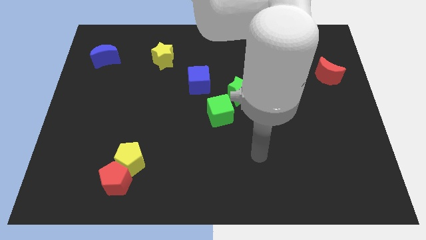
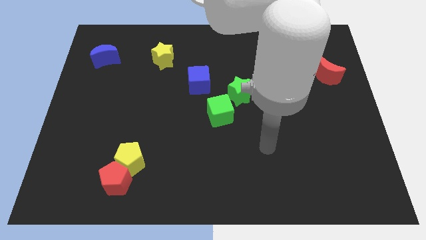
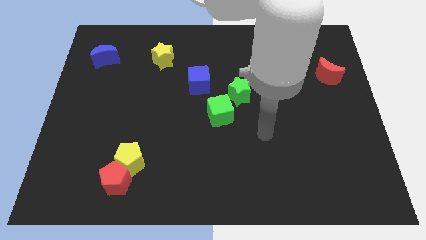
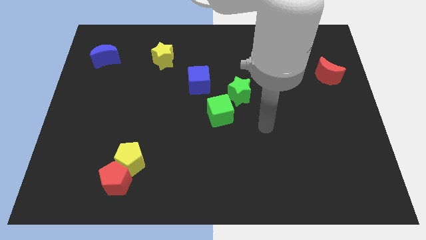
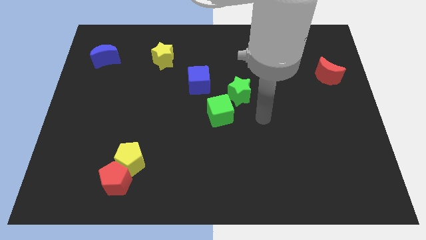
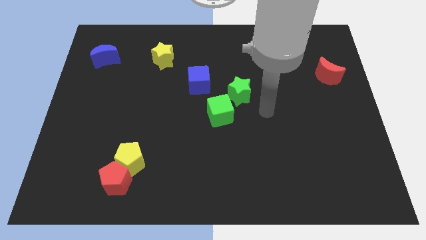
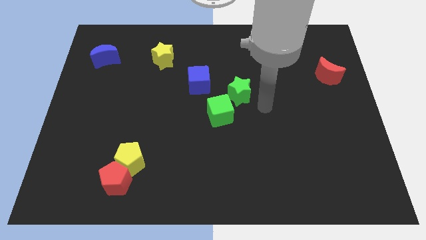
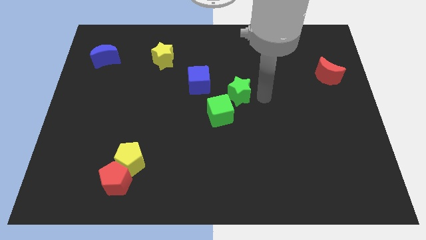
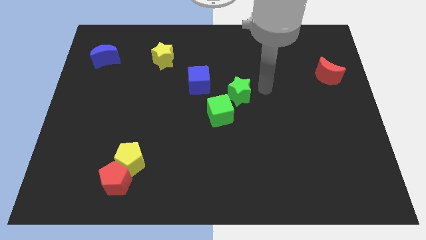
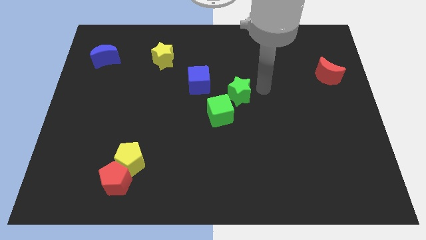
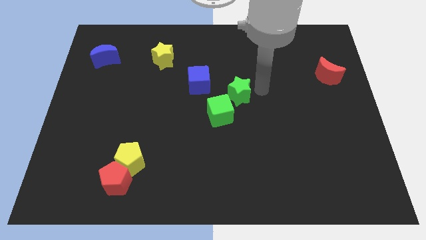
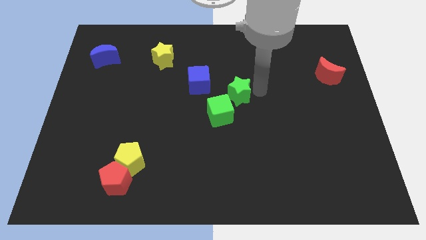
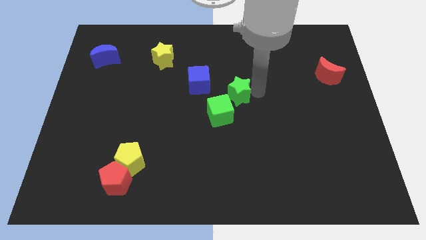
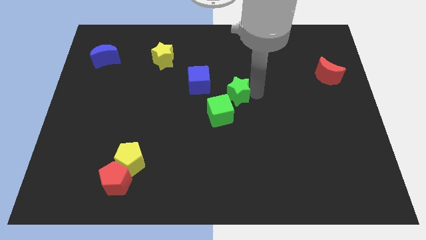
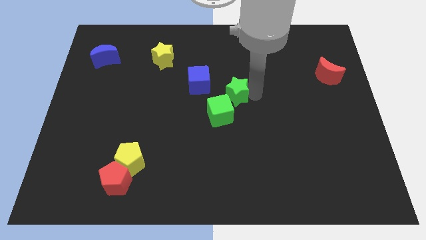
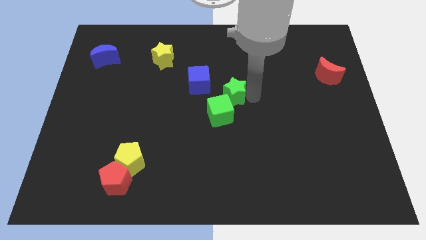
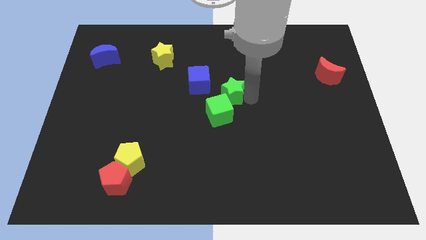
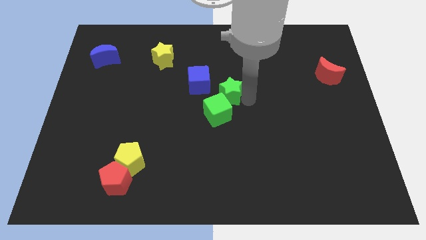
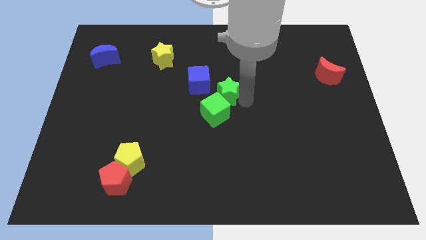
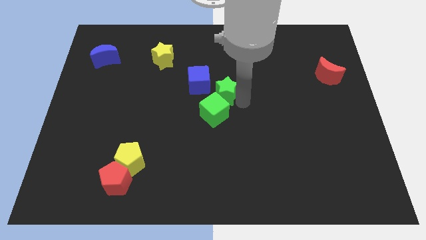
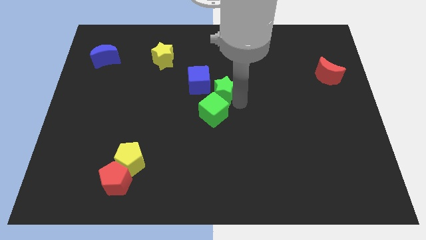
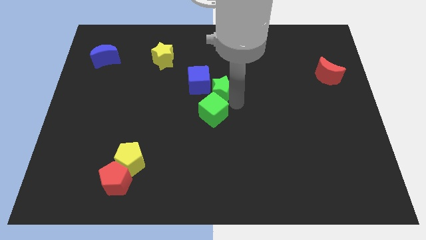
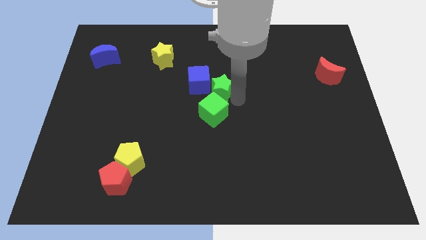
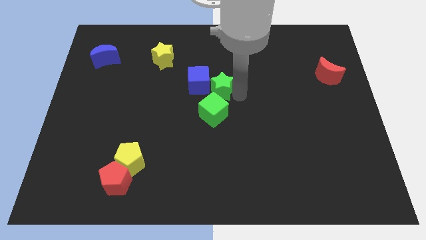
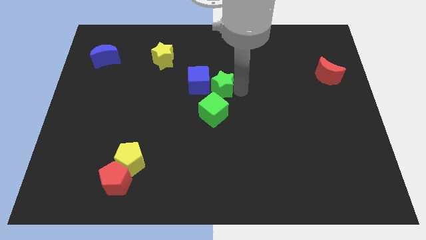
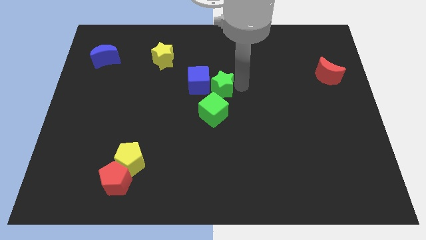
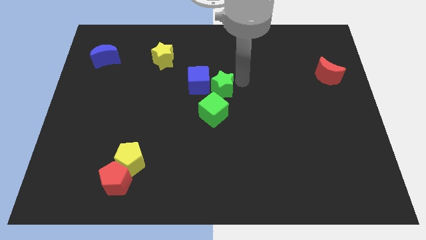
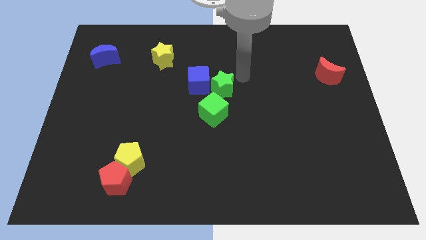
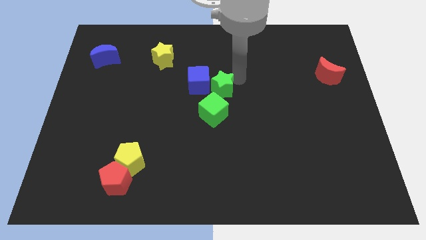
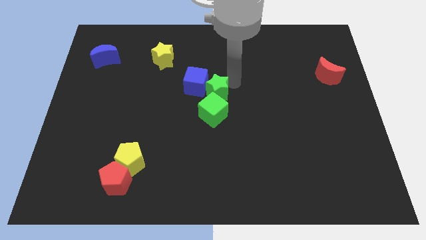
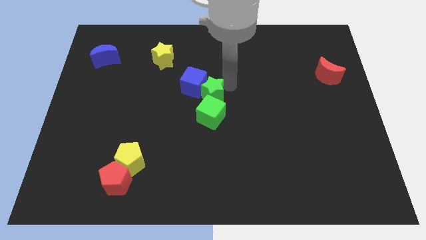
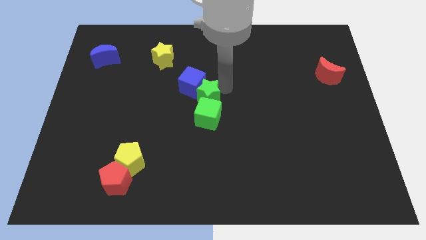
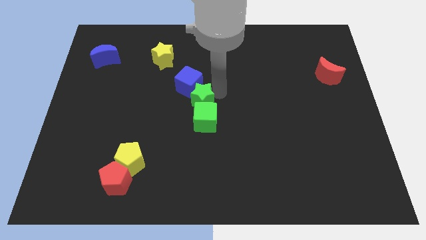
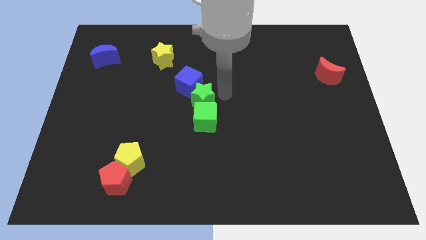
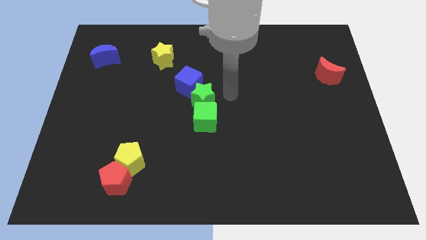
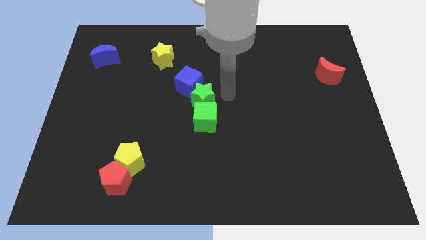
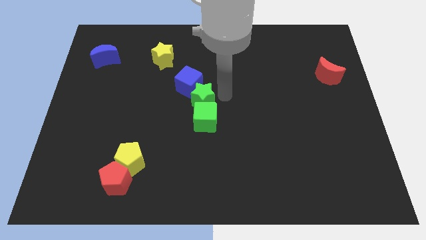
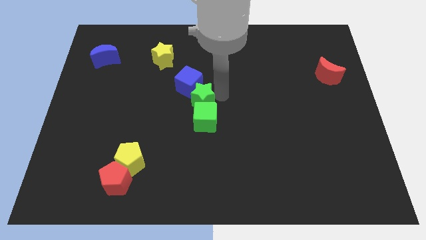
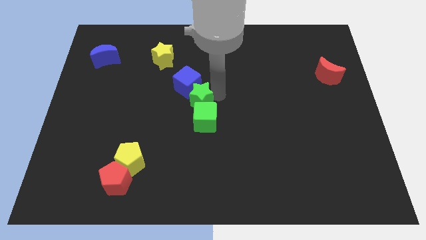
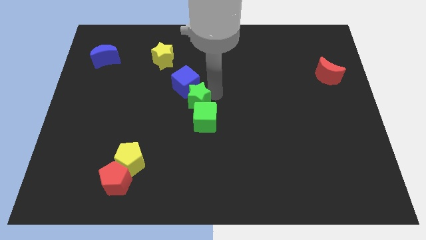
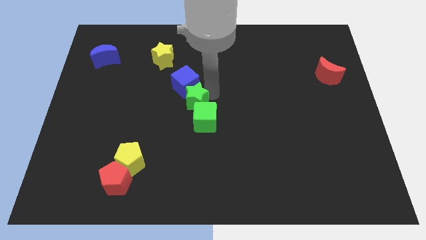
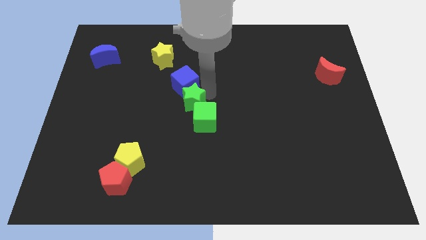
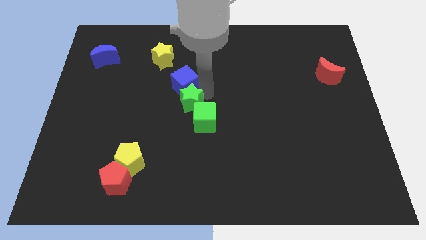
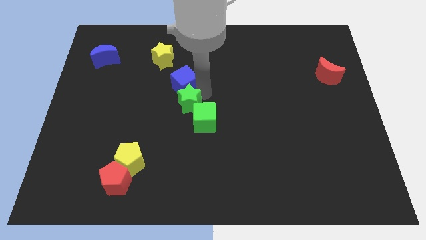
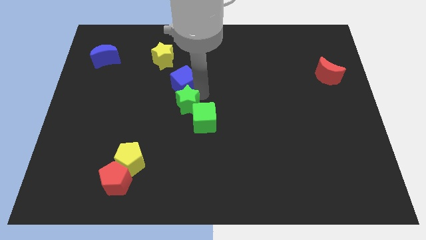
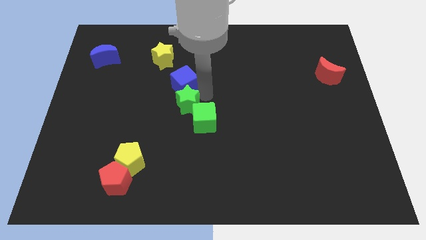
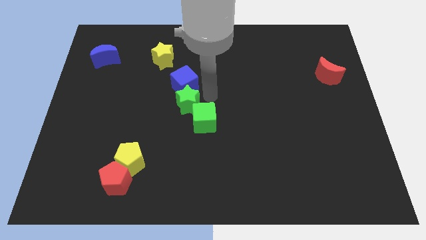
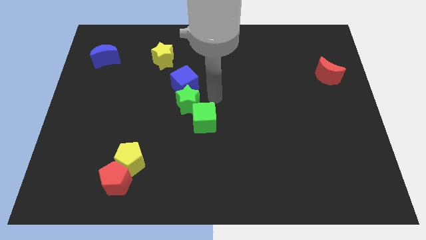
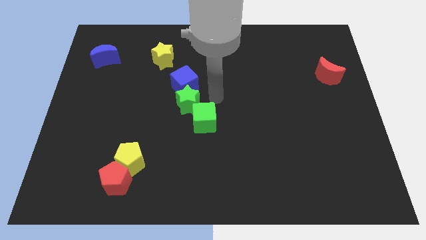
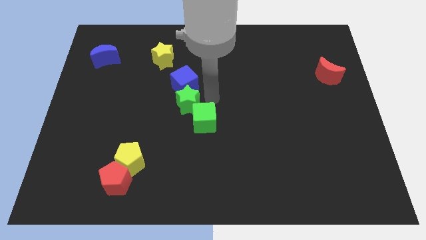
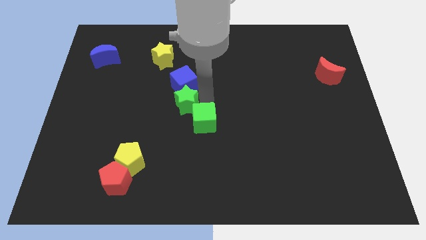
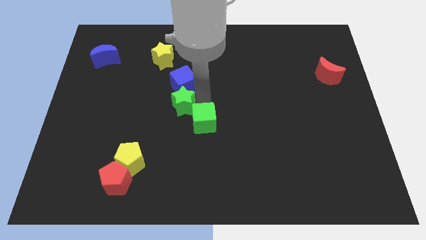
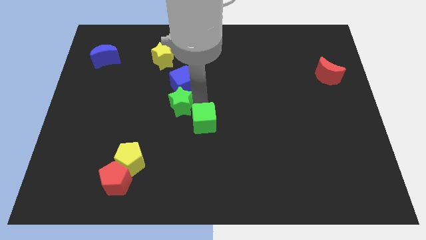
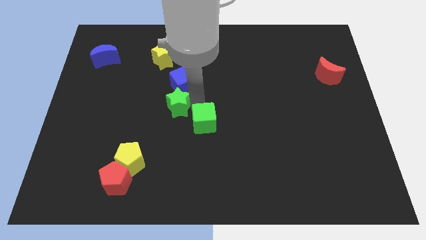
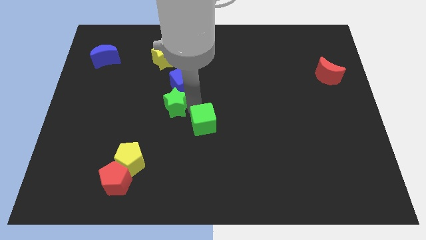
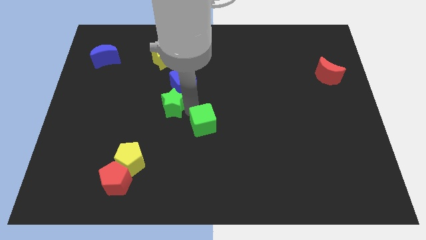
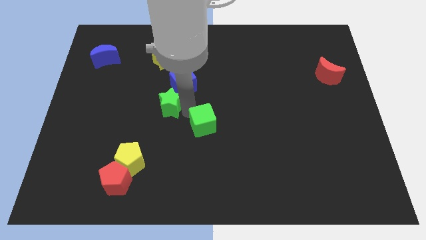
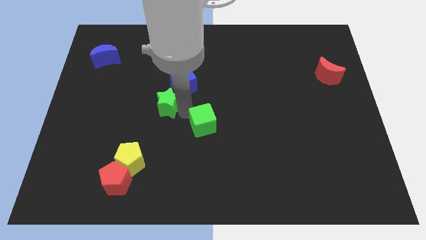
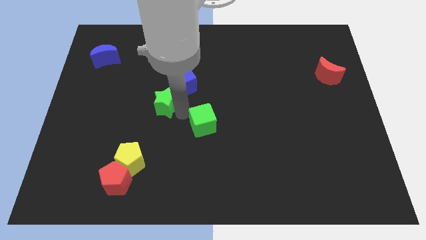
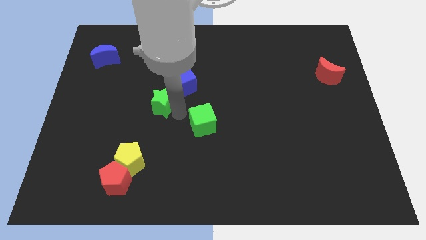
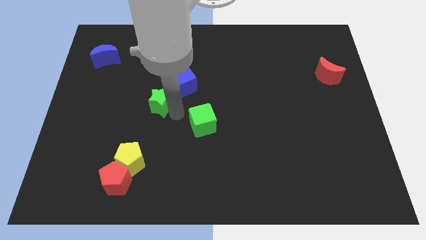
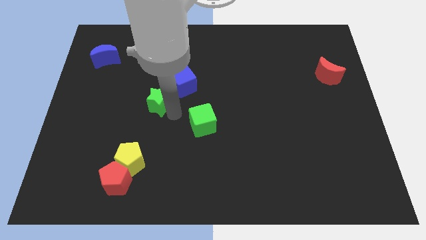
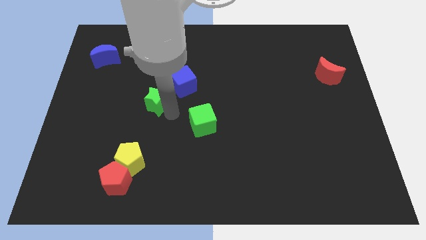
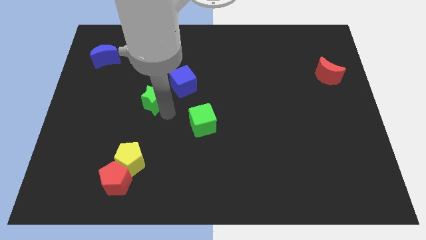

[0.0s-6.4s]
slide the green star left

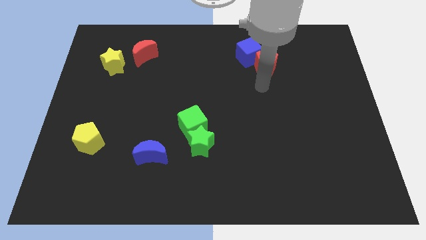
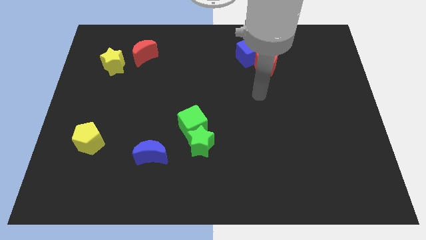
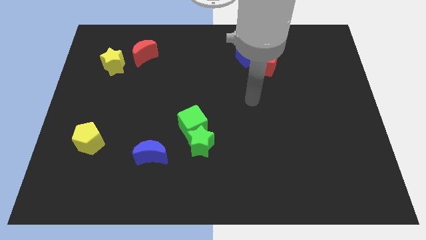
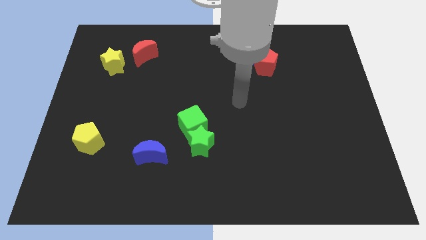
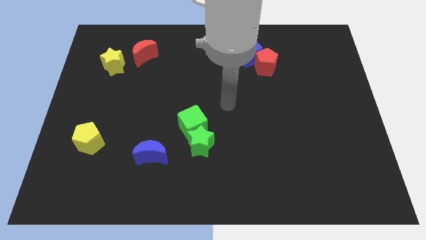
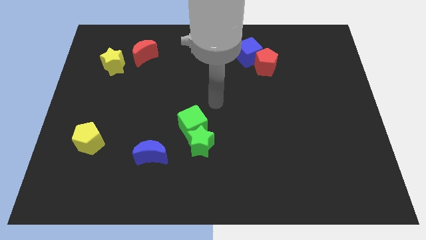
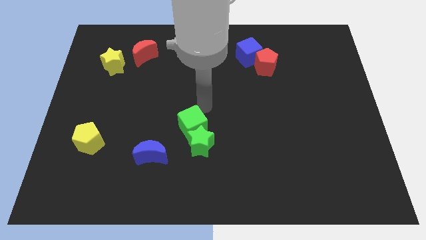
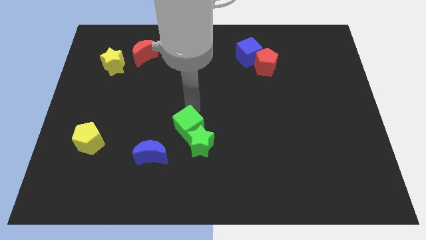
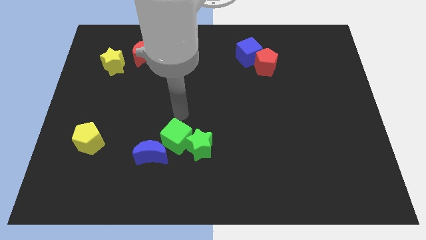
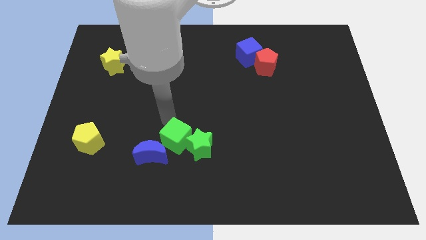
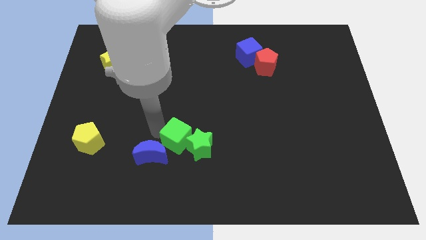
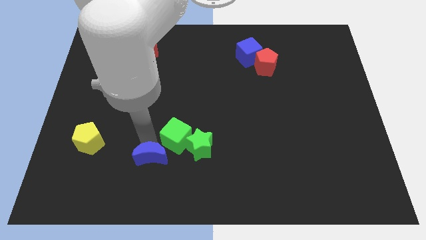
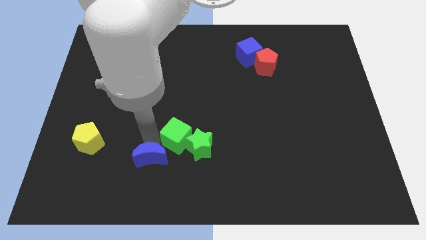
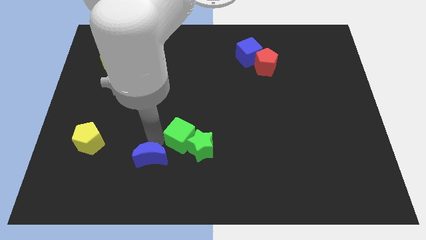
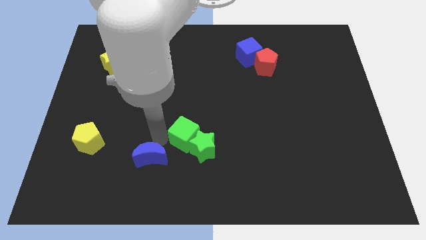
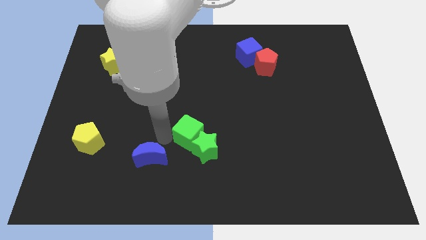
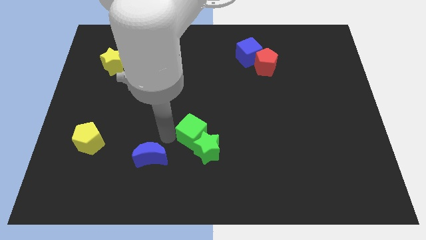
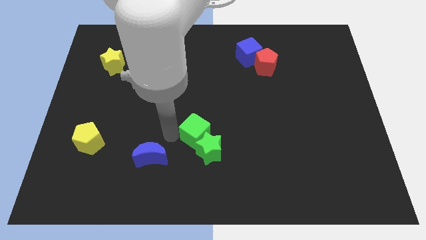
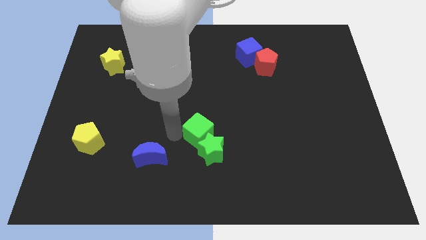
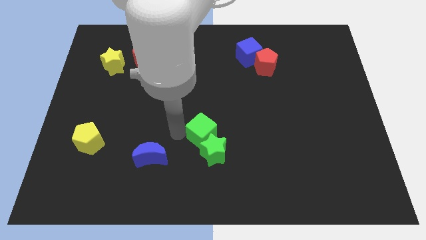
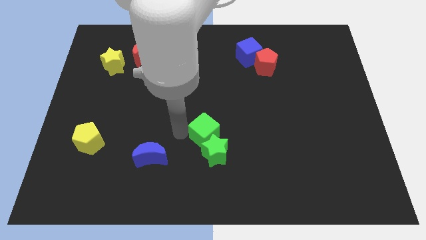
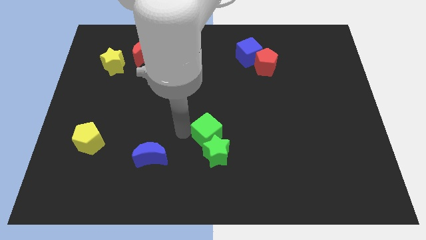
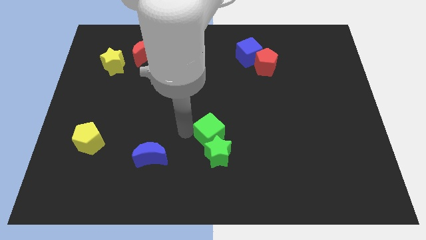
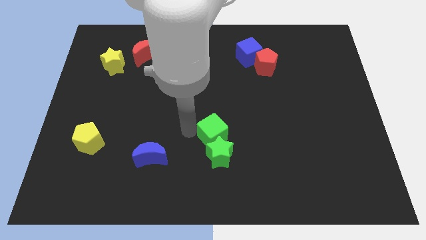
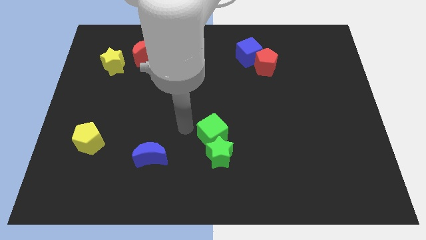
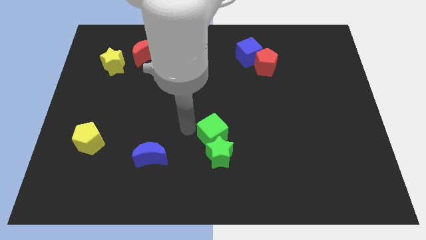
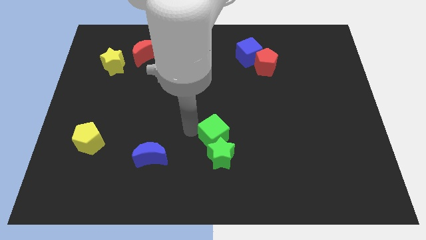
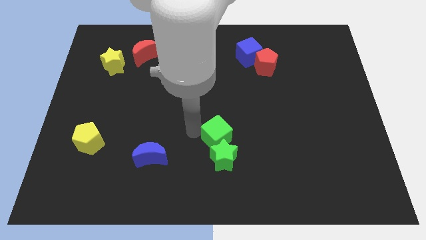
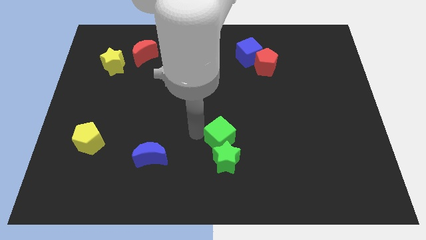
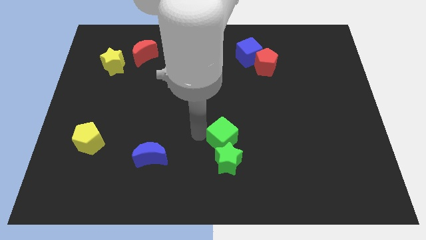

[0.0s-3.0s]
slide the green cube downwards and right diagonally somewhat
